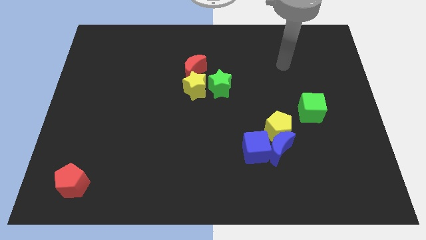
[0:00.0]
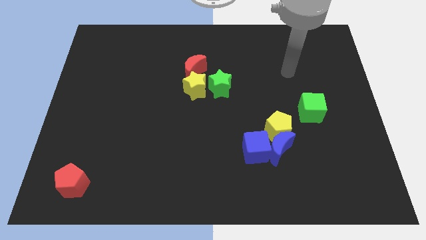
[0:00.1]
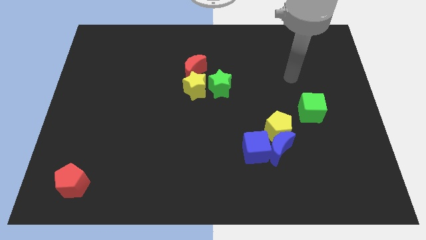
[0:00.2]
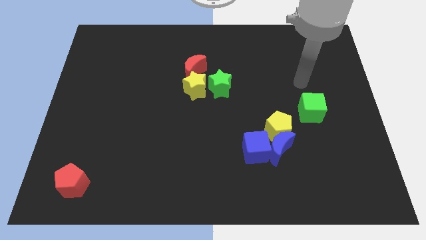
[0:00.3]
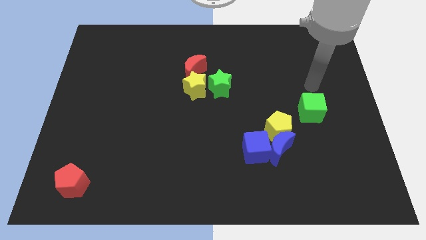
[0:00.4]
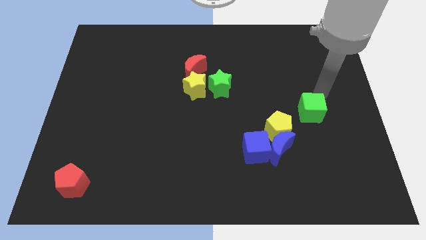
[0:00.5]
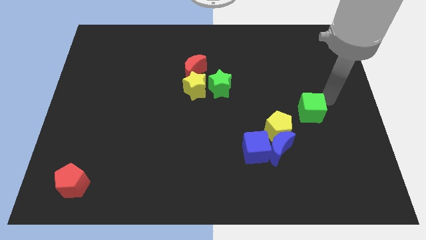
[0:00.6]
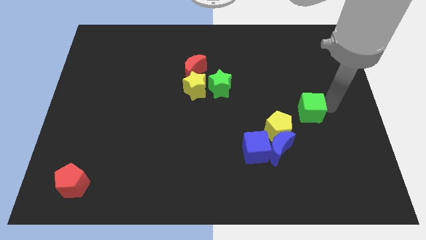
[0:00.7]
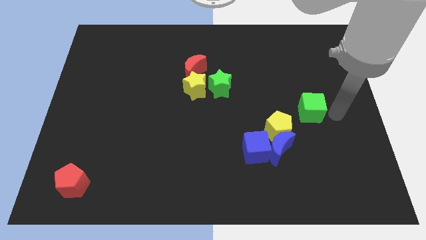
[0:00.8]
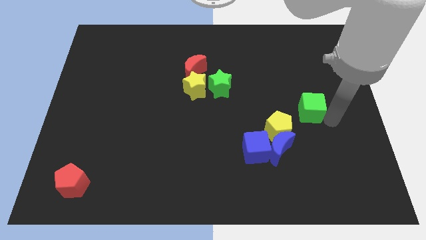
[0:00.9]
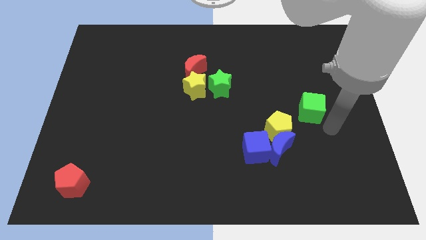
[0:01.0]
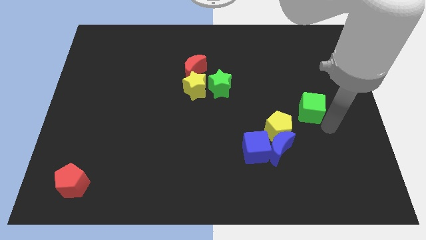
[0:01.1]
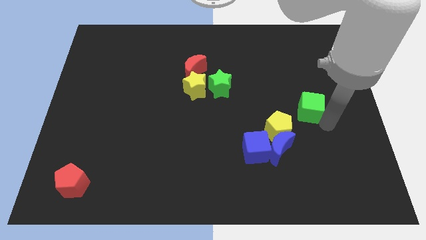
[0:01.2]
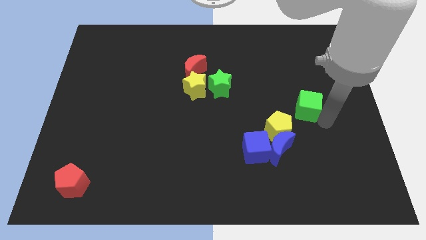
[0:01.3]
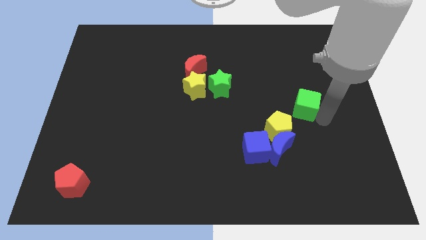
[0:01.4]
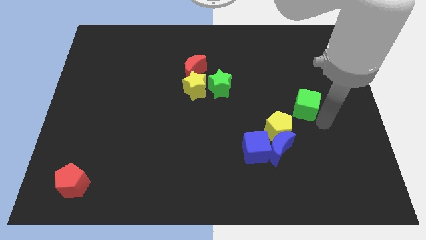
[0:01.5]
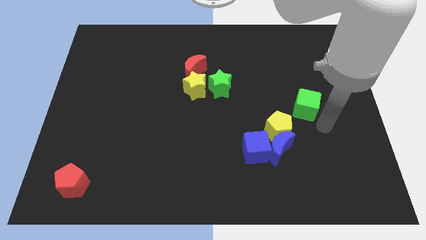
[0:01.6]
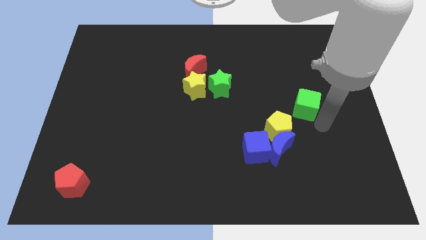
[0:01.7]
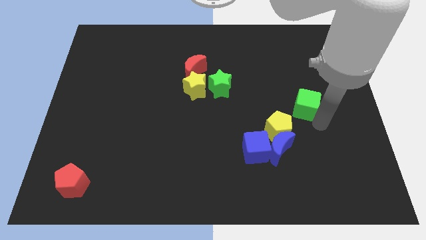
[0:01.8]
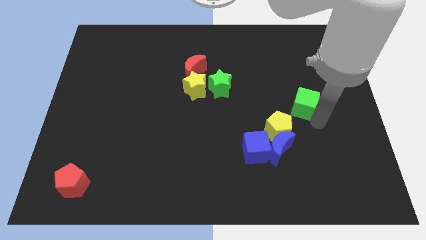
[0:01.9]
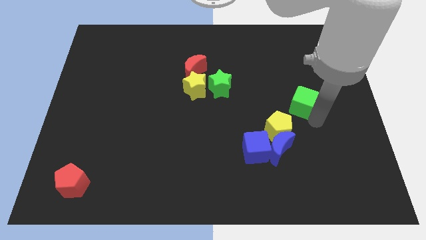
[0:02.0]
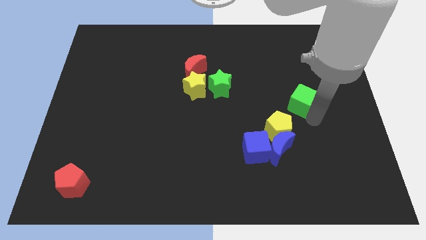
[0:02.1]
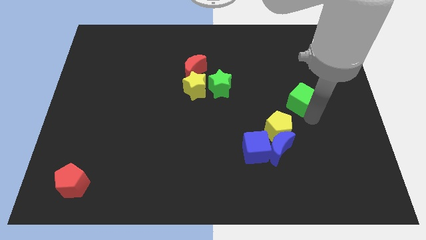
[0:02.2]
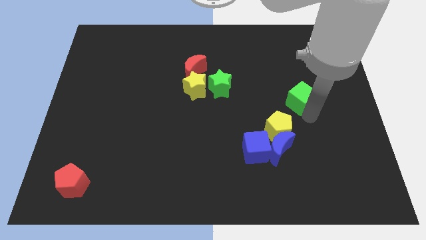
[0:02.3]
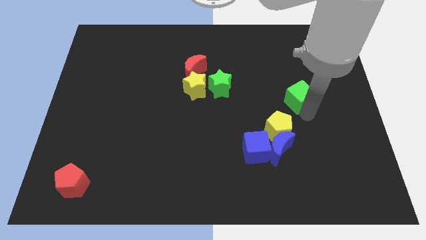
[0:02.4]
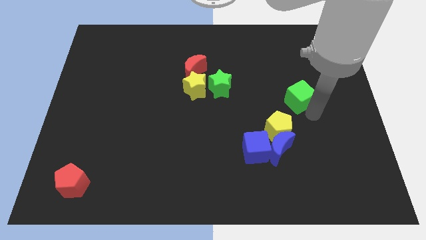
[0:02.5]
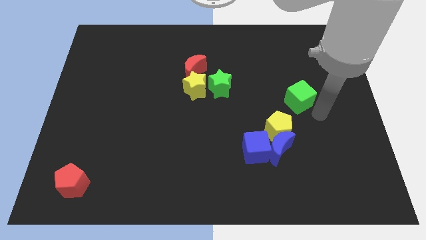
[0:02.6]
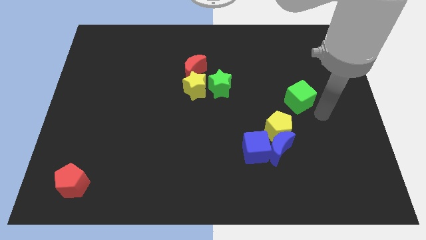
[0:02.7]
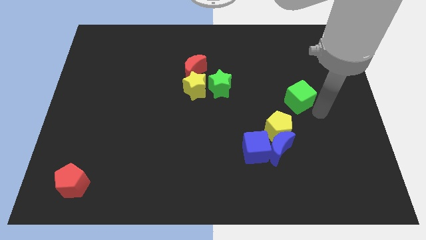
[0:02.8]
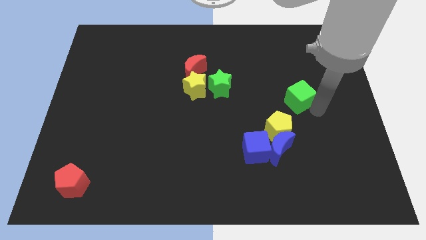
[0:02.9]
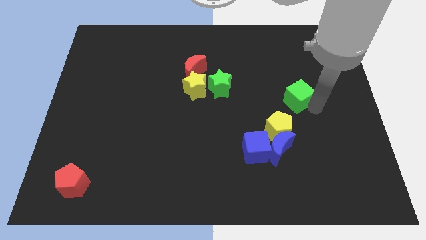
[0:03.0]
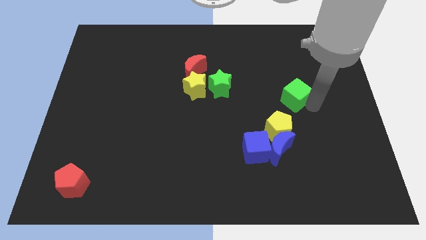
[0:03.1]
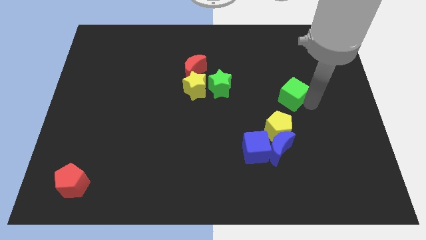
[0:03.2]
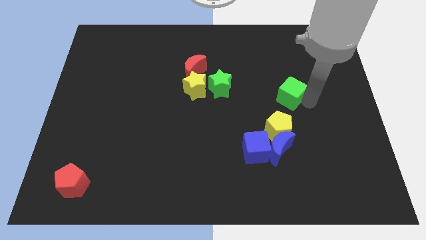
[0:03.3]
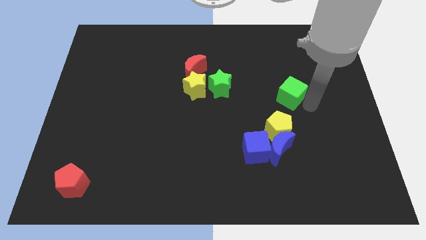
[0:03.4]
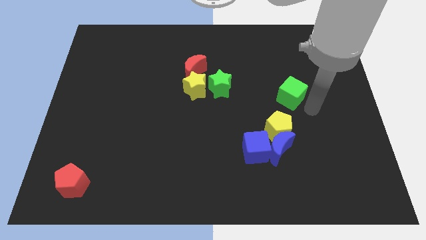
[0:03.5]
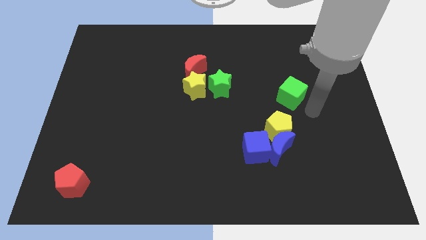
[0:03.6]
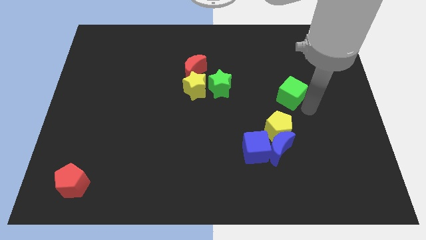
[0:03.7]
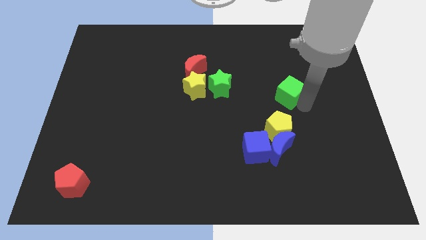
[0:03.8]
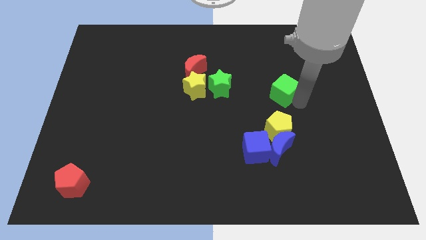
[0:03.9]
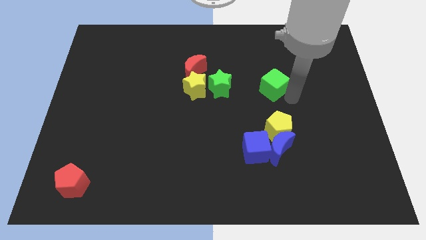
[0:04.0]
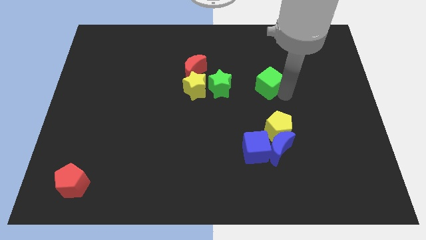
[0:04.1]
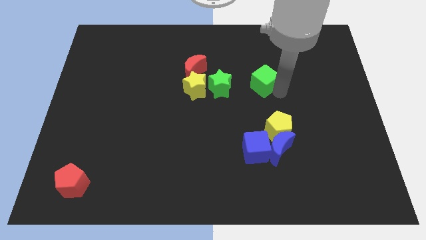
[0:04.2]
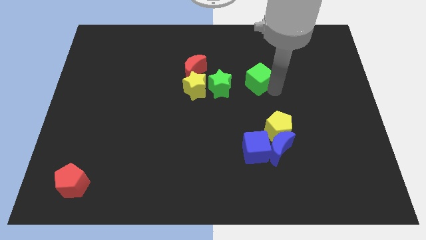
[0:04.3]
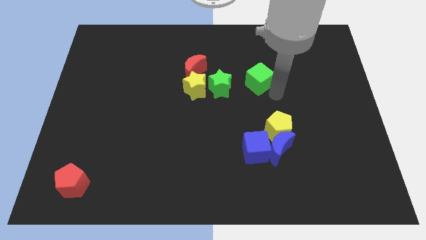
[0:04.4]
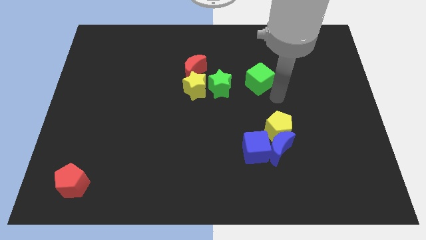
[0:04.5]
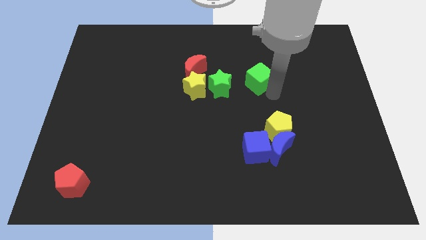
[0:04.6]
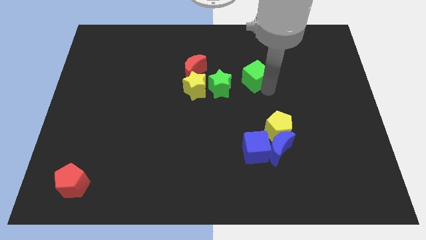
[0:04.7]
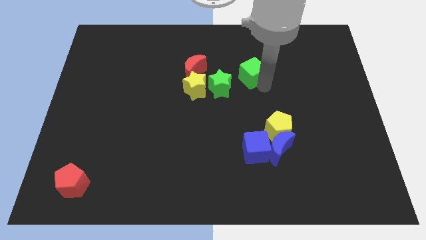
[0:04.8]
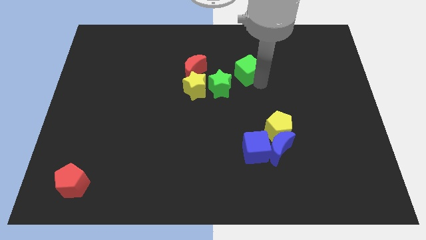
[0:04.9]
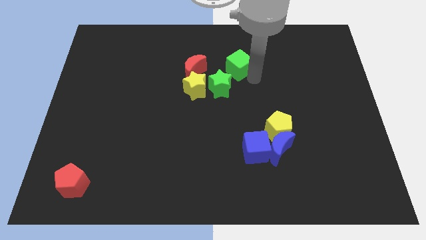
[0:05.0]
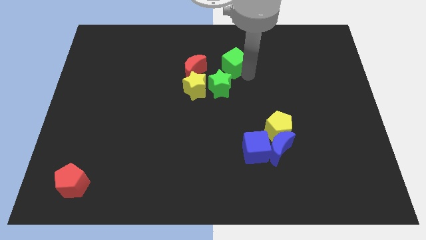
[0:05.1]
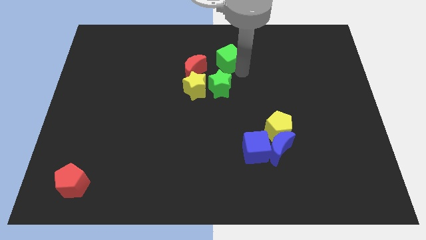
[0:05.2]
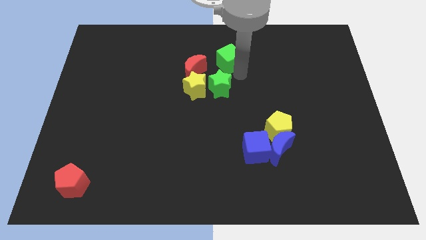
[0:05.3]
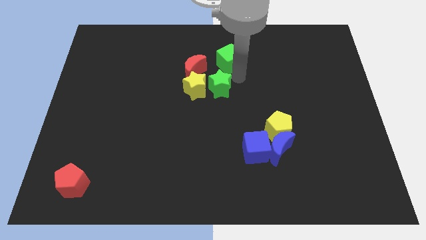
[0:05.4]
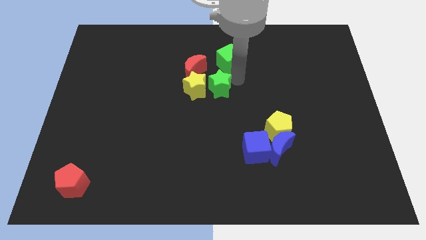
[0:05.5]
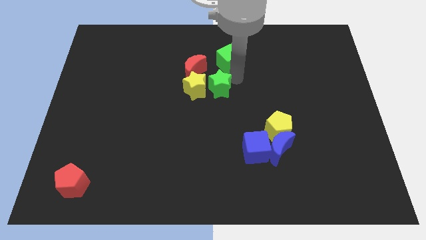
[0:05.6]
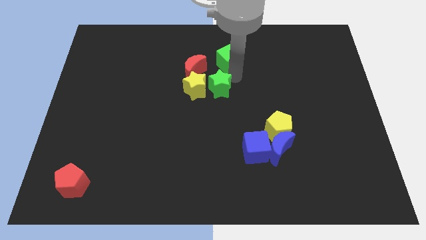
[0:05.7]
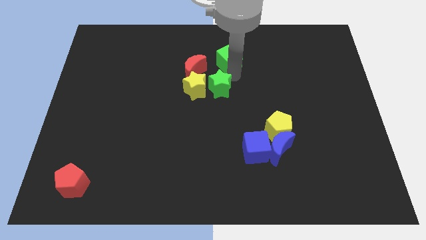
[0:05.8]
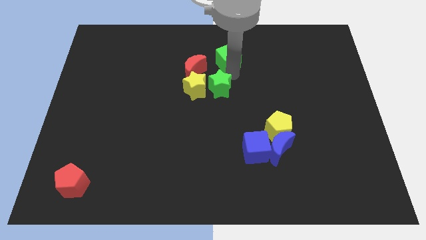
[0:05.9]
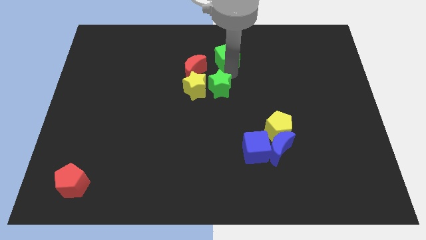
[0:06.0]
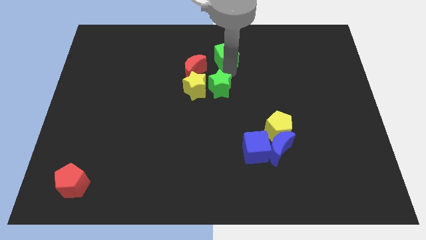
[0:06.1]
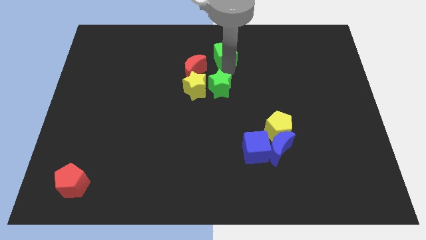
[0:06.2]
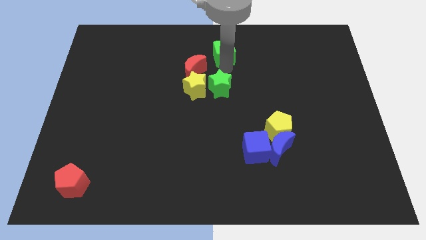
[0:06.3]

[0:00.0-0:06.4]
put the green cube to the top side

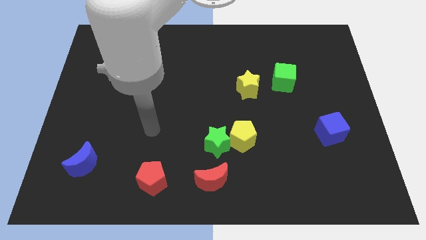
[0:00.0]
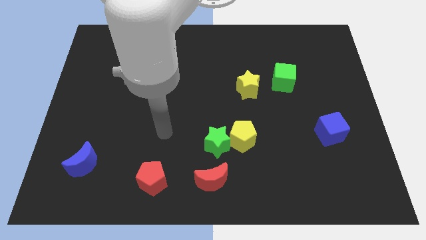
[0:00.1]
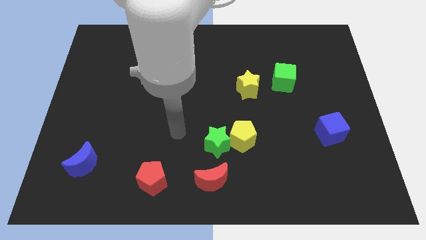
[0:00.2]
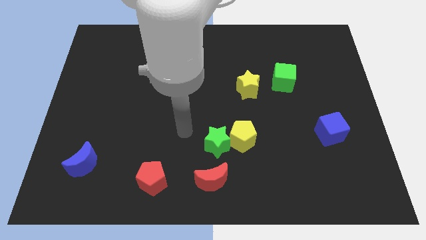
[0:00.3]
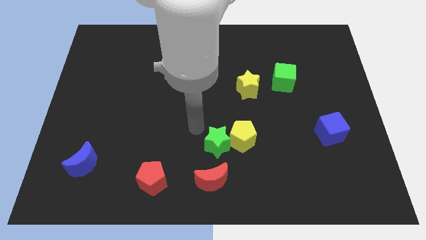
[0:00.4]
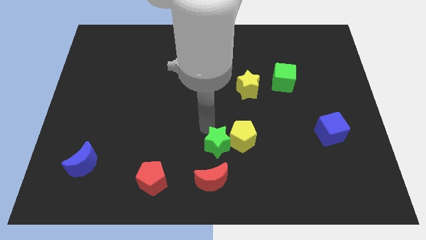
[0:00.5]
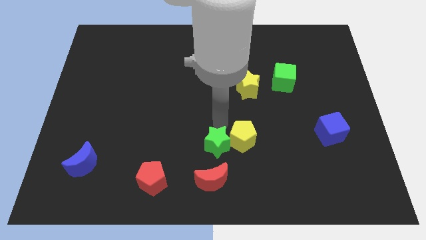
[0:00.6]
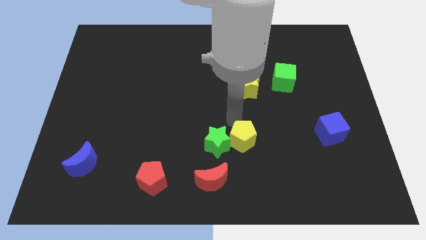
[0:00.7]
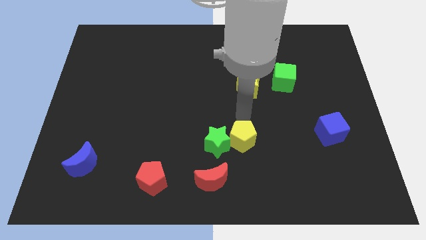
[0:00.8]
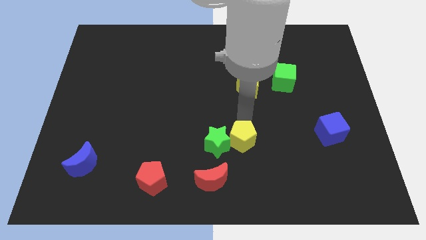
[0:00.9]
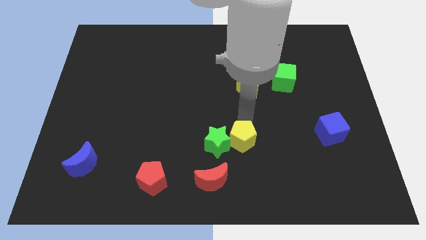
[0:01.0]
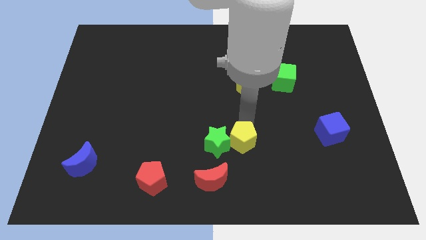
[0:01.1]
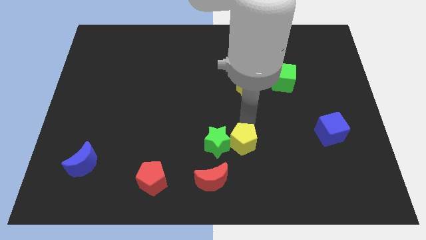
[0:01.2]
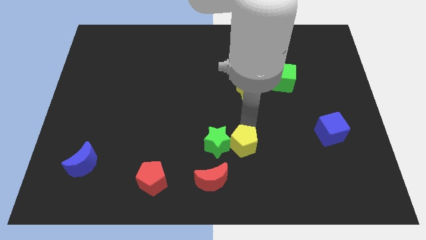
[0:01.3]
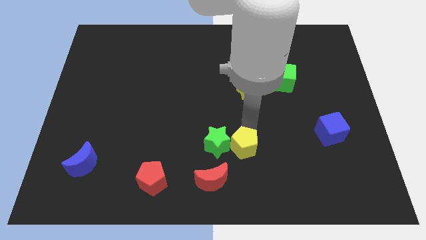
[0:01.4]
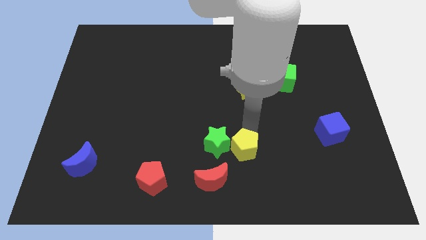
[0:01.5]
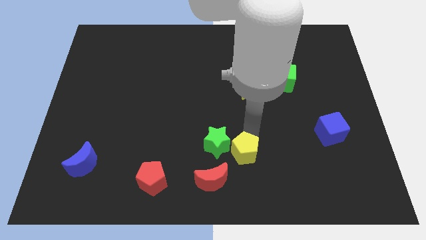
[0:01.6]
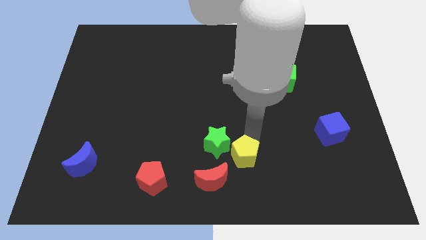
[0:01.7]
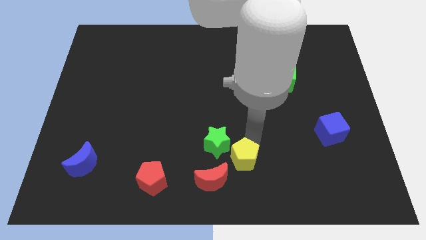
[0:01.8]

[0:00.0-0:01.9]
move the yellow pentagon to the bottom side
